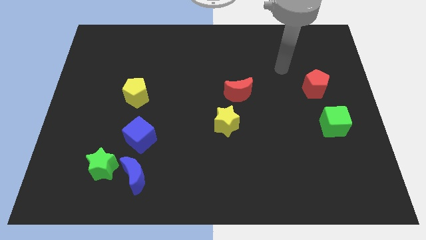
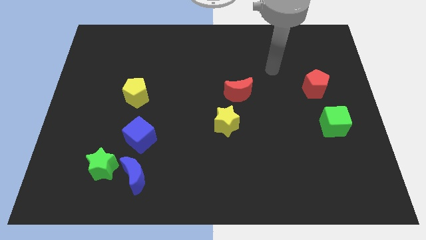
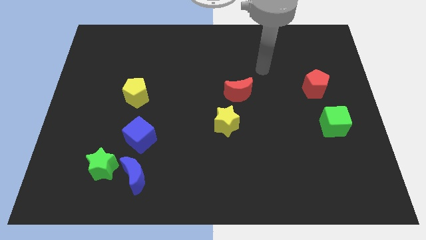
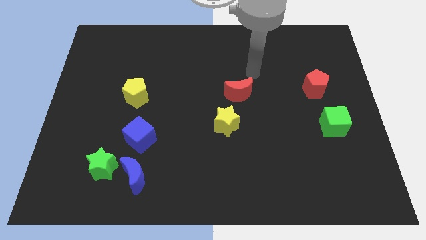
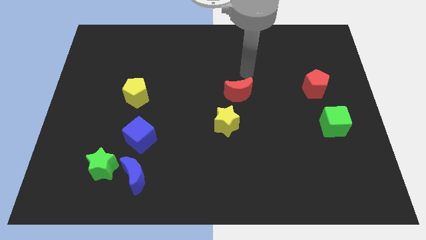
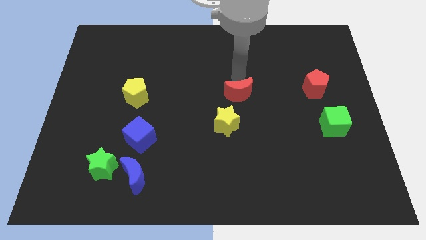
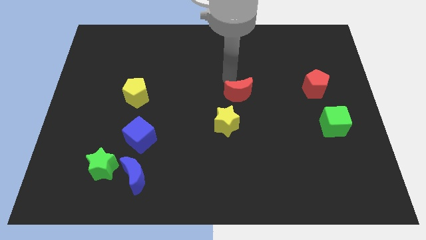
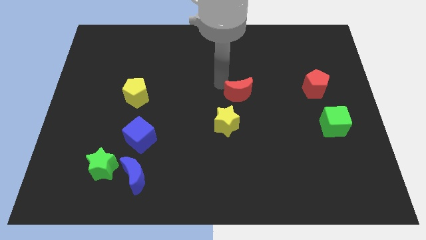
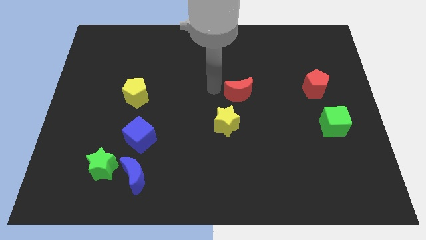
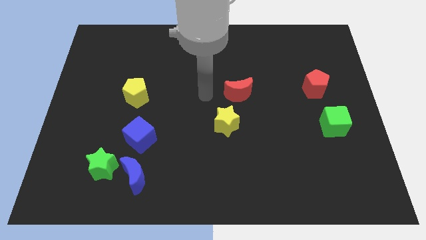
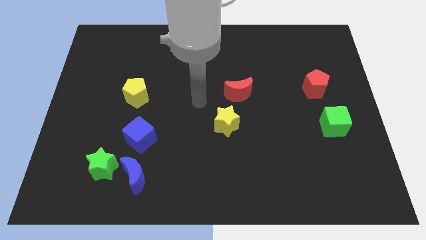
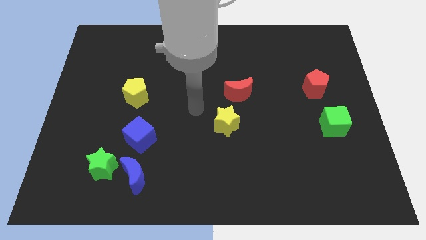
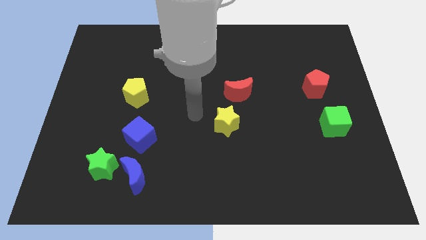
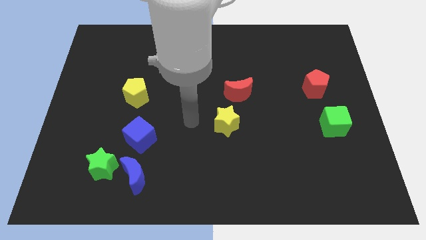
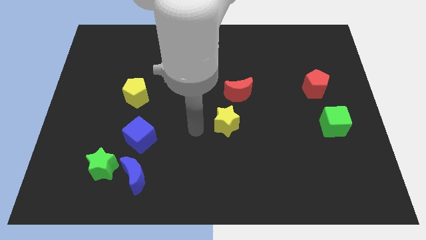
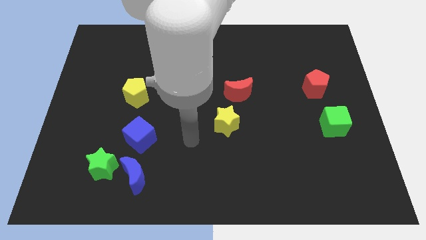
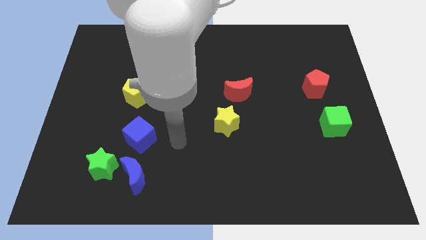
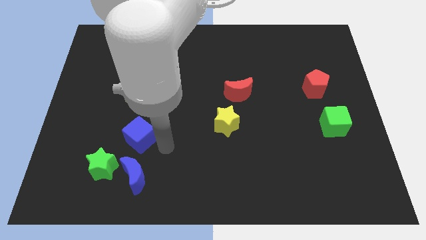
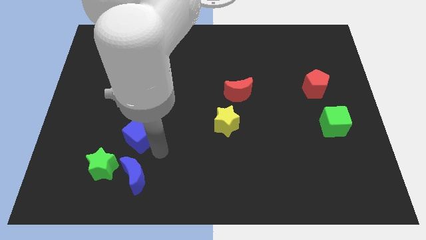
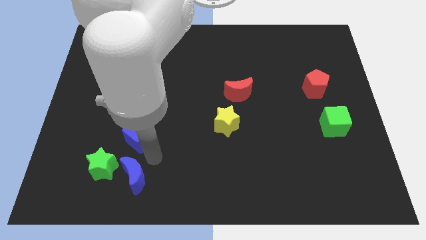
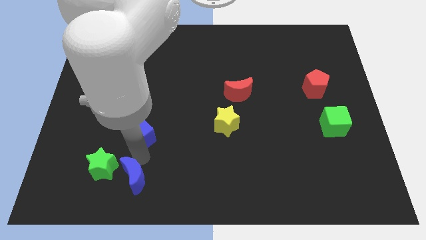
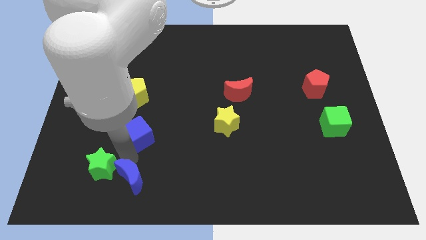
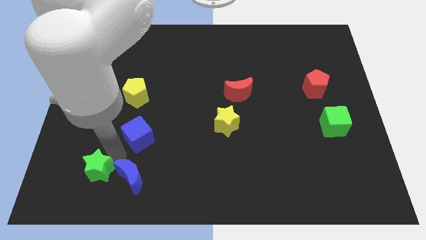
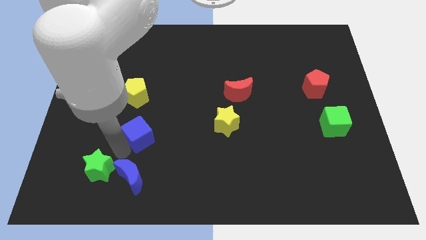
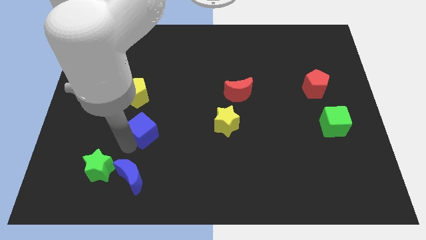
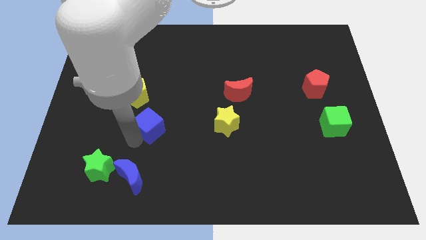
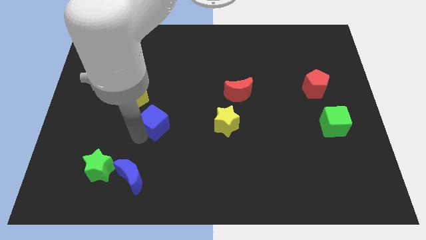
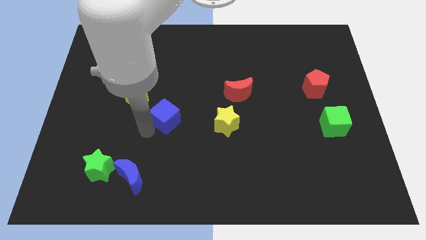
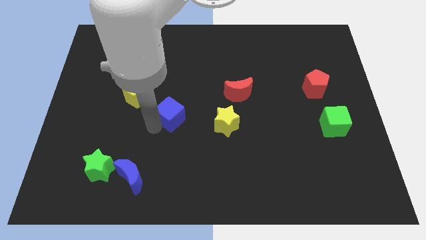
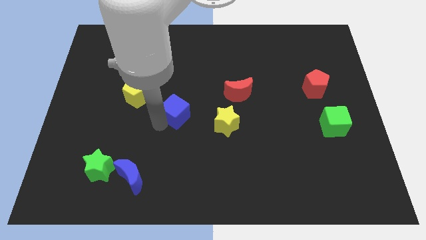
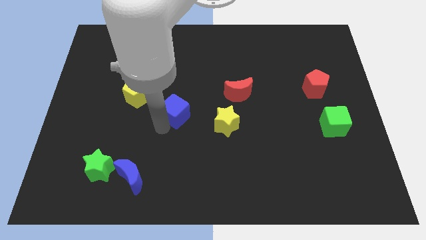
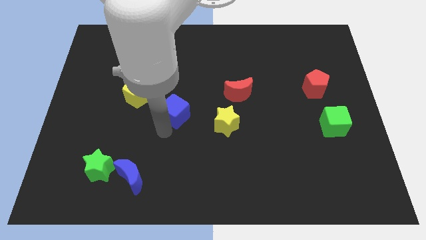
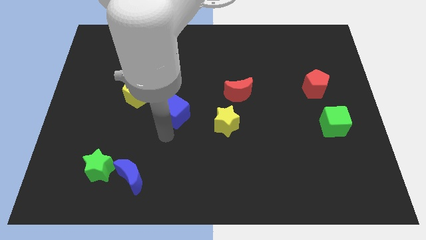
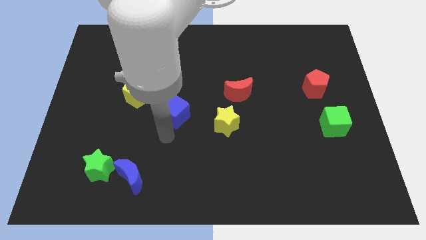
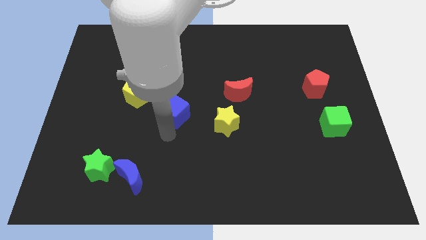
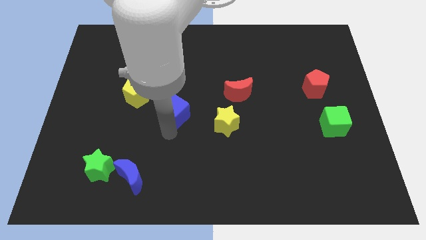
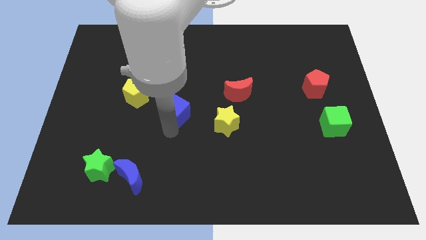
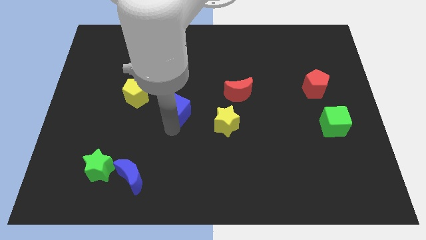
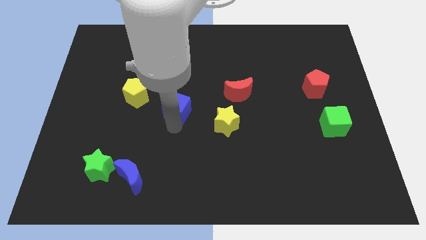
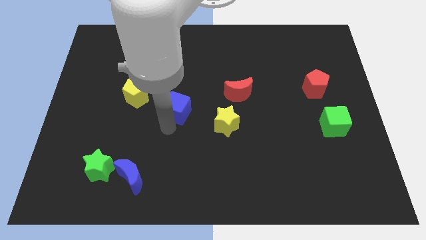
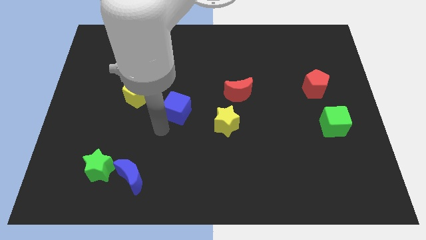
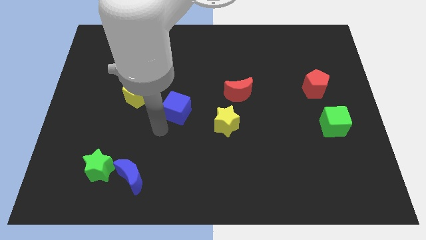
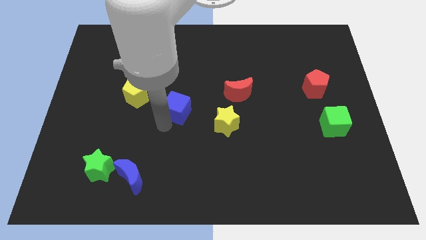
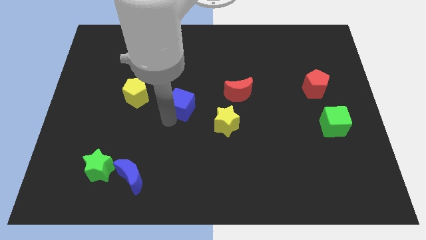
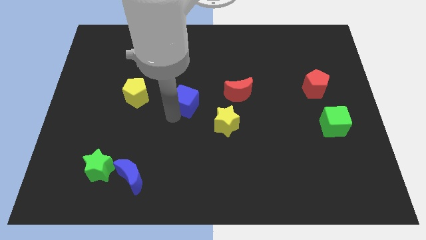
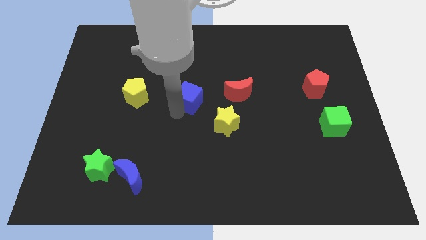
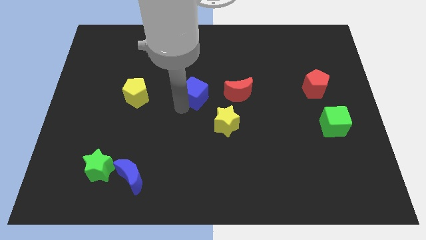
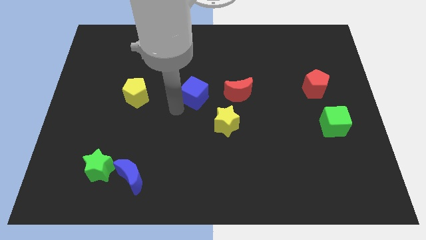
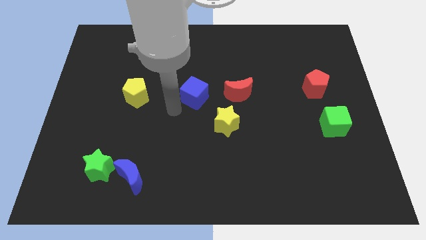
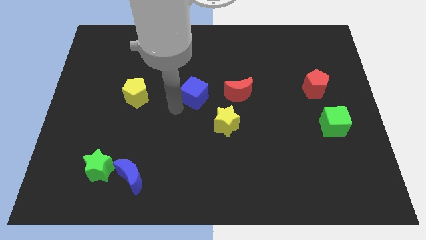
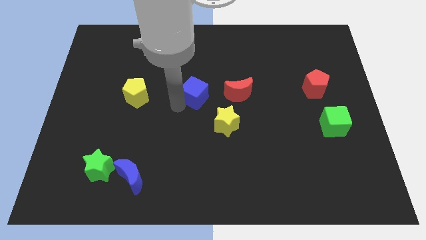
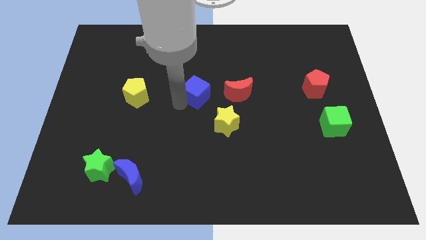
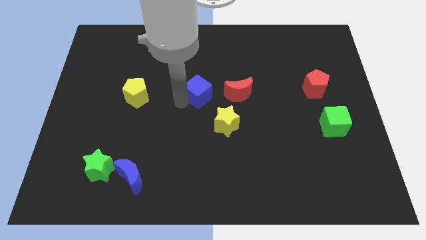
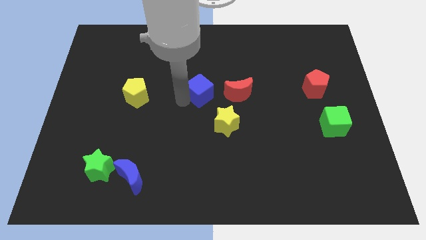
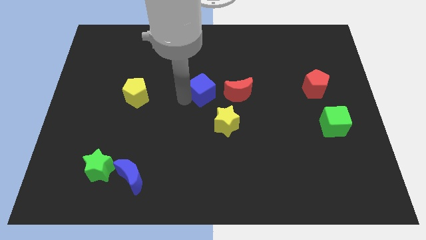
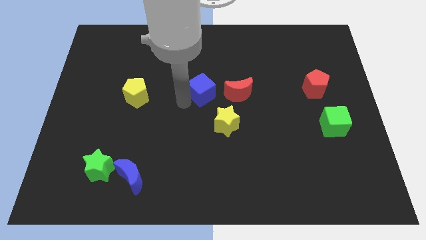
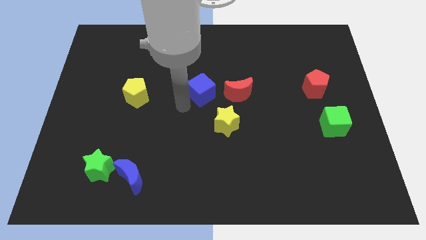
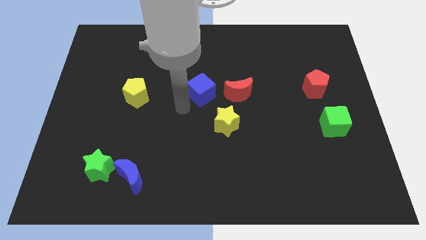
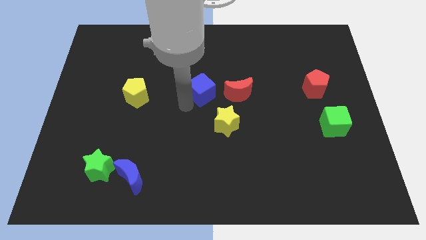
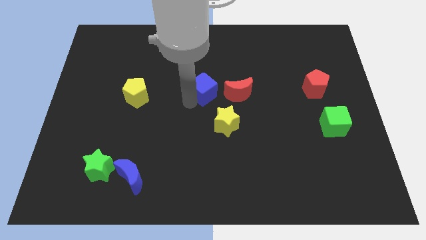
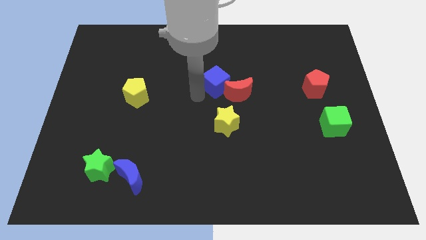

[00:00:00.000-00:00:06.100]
push the blue cube upwards and right diagonally

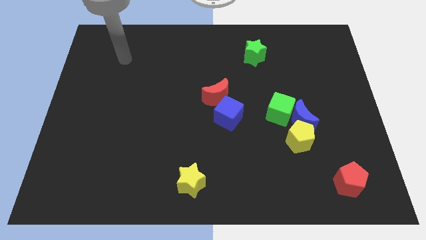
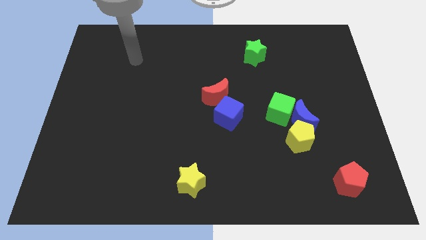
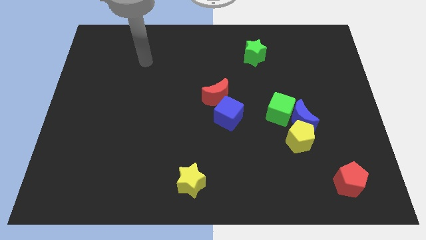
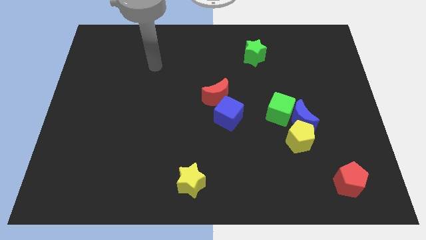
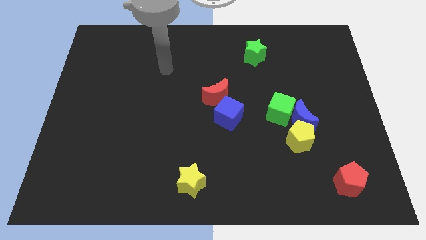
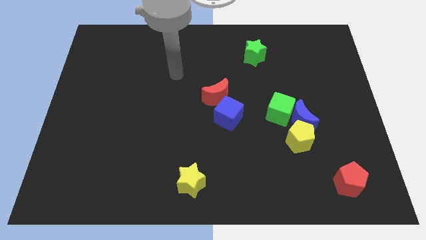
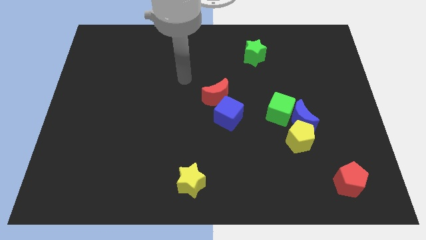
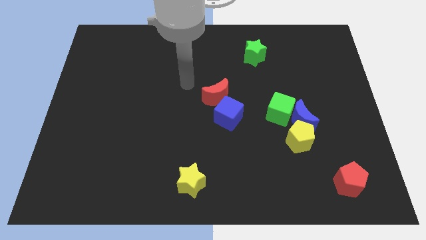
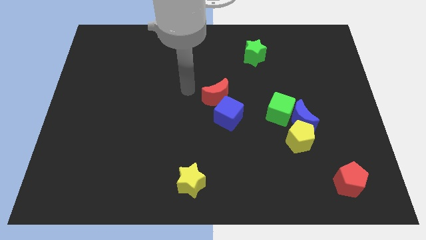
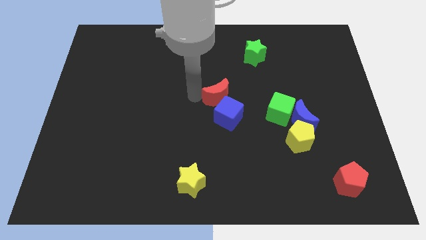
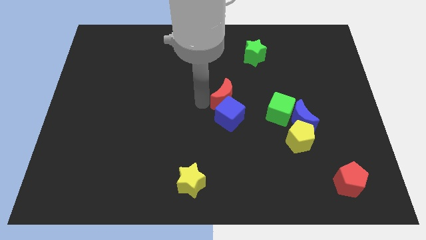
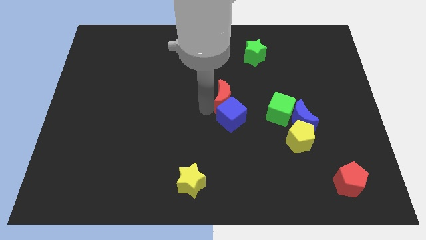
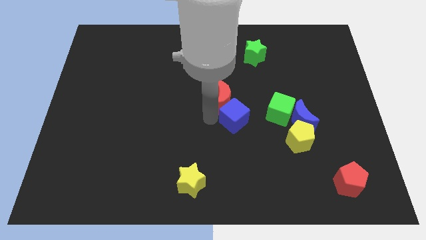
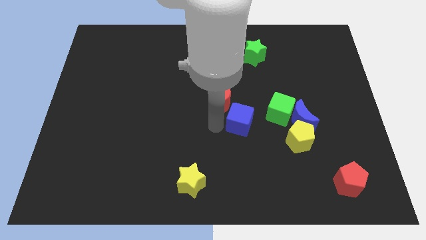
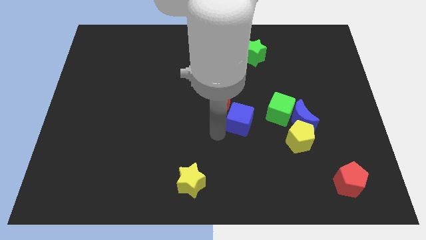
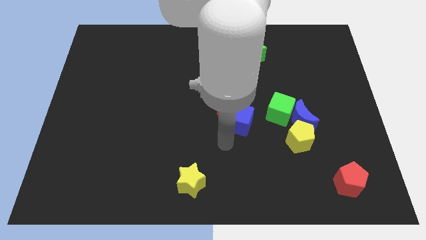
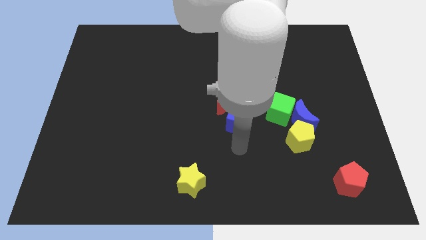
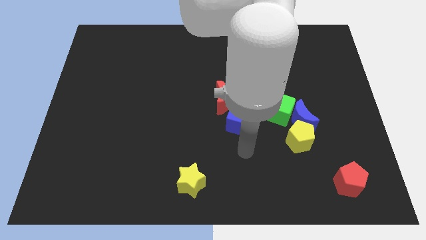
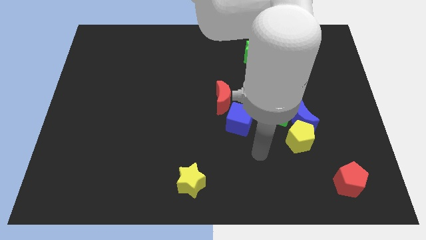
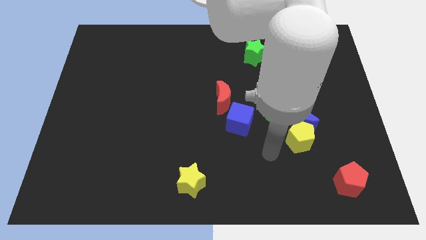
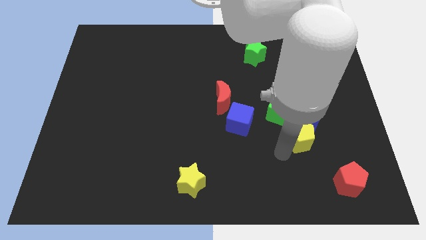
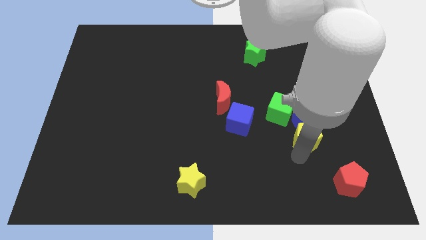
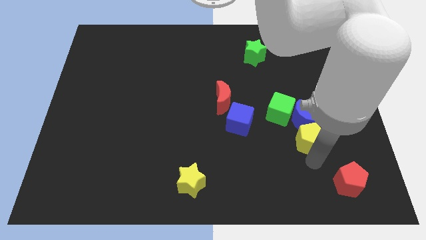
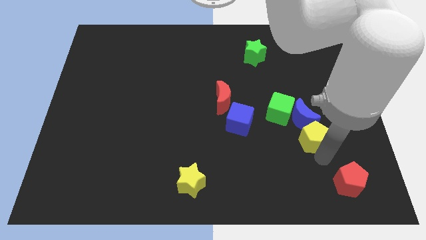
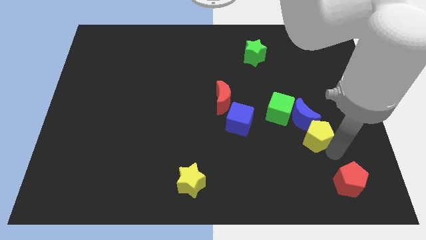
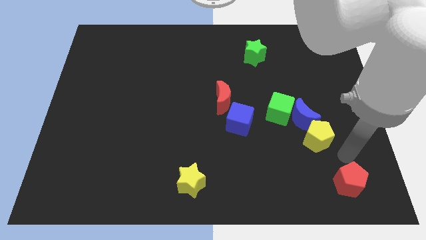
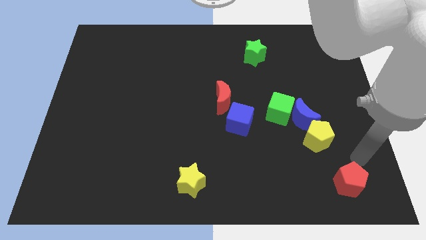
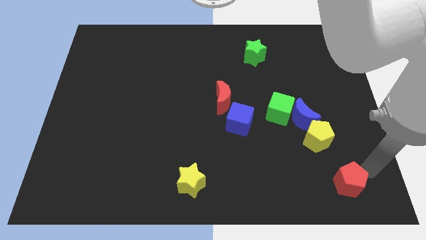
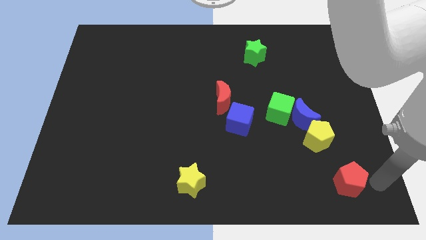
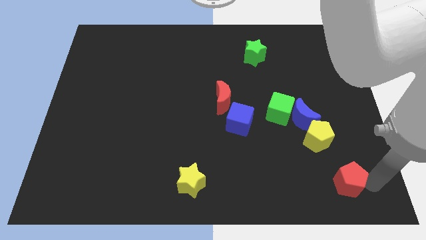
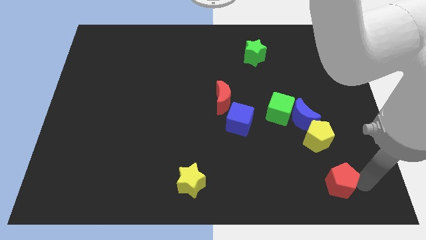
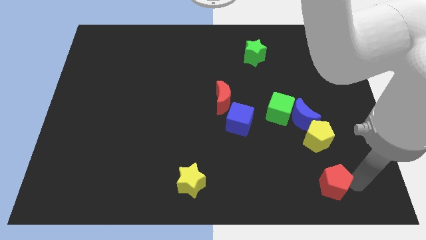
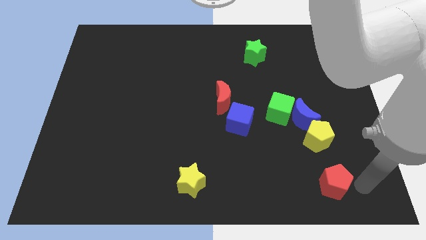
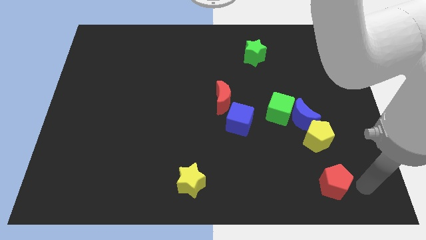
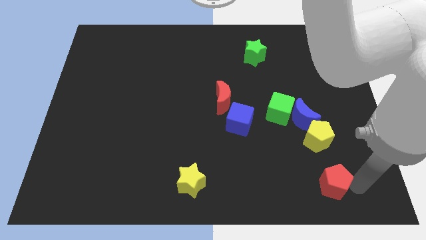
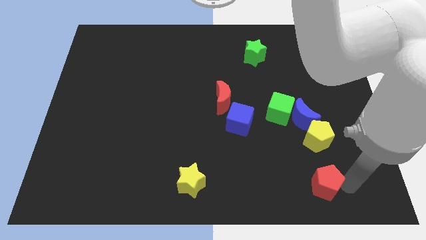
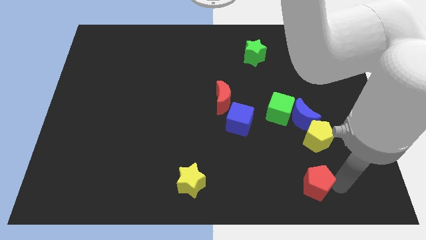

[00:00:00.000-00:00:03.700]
slide the red pentagon left somewhat
